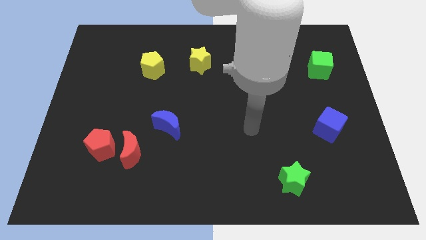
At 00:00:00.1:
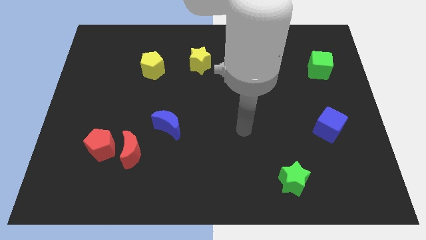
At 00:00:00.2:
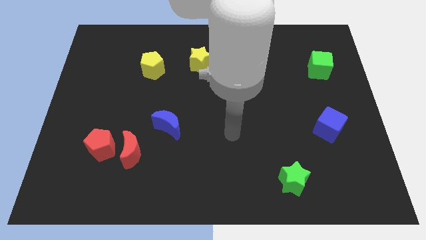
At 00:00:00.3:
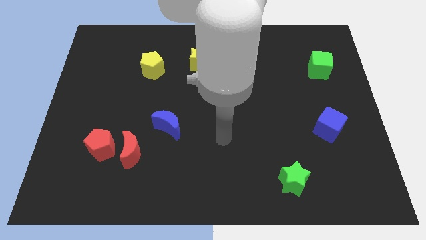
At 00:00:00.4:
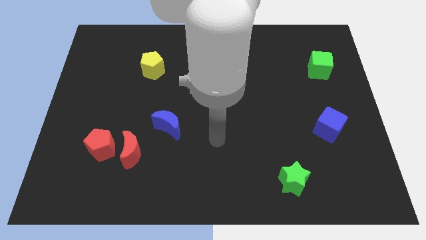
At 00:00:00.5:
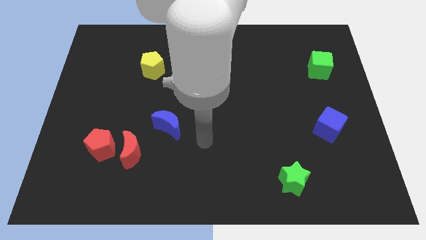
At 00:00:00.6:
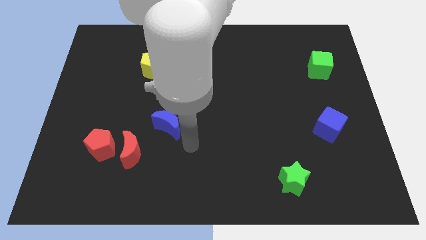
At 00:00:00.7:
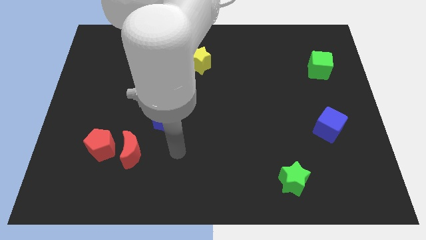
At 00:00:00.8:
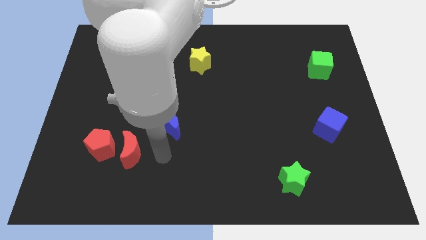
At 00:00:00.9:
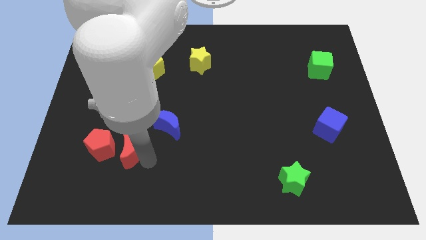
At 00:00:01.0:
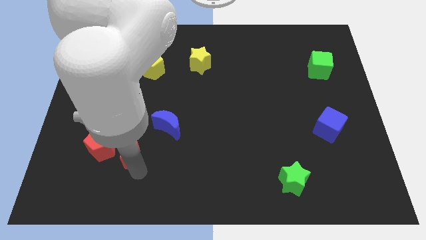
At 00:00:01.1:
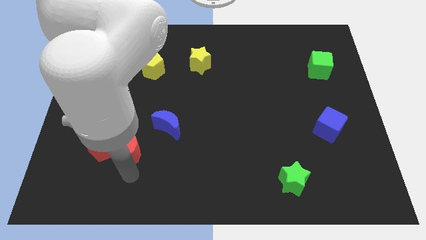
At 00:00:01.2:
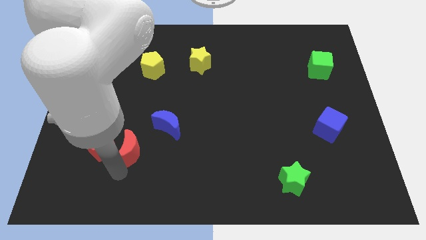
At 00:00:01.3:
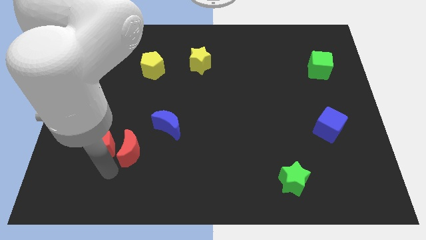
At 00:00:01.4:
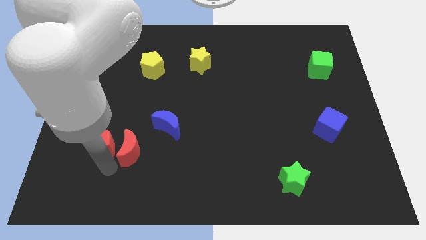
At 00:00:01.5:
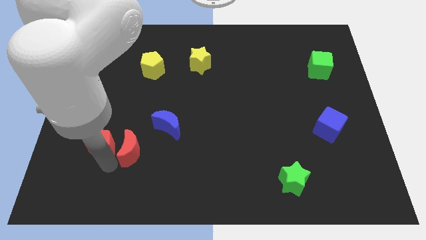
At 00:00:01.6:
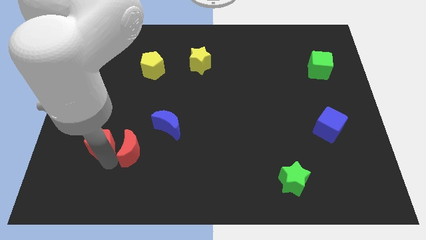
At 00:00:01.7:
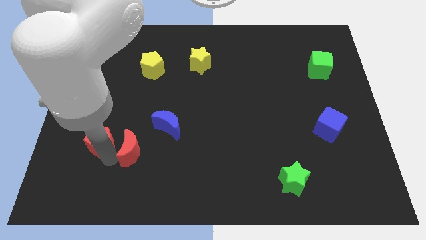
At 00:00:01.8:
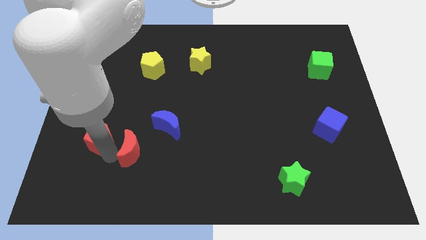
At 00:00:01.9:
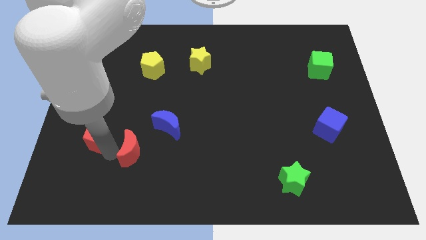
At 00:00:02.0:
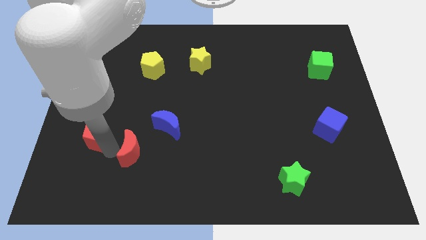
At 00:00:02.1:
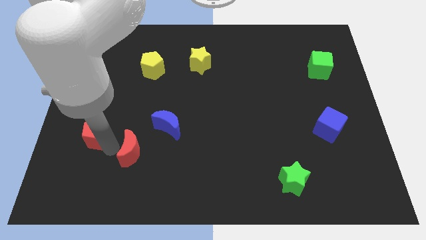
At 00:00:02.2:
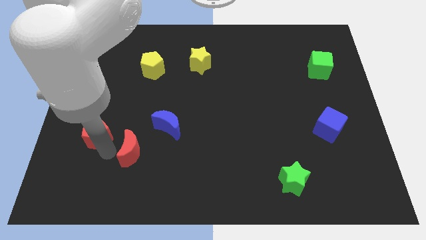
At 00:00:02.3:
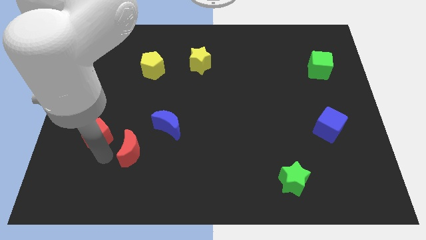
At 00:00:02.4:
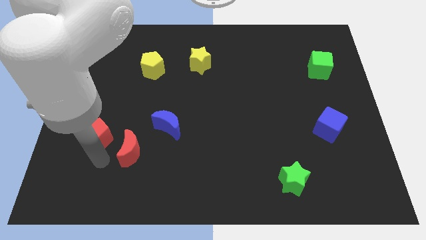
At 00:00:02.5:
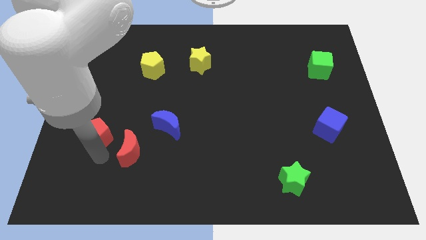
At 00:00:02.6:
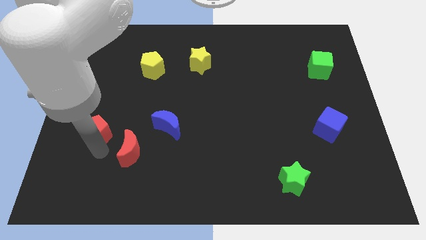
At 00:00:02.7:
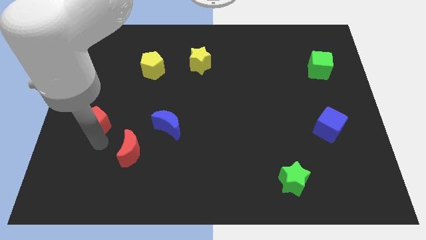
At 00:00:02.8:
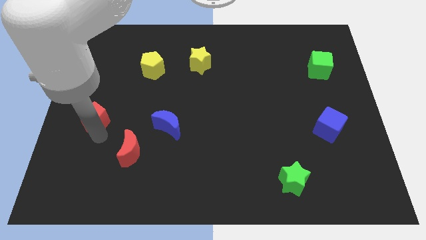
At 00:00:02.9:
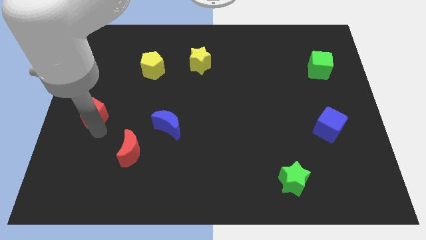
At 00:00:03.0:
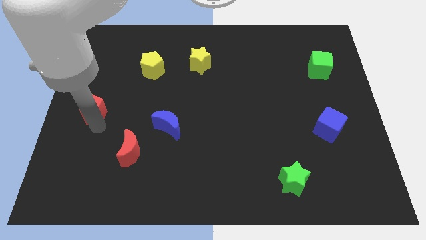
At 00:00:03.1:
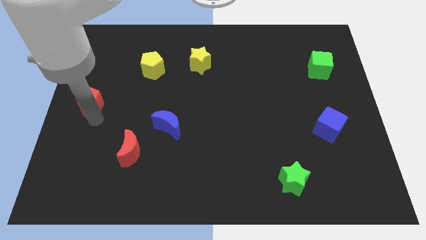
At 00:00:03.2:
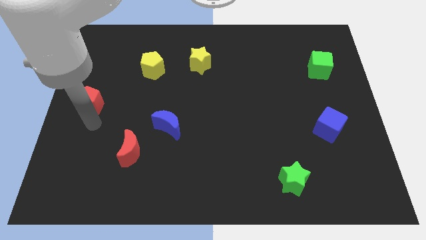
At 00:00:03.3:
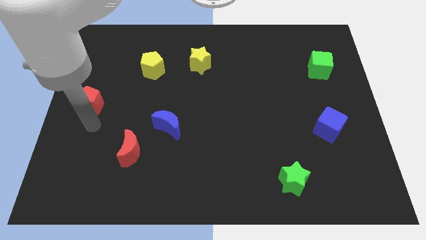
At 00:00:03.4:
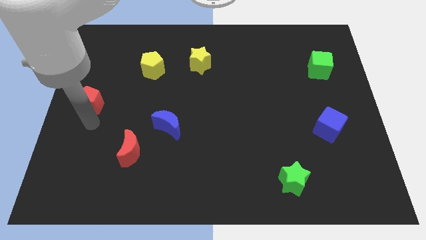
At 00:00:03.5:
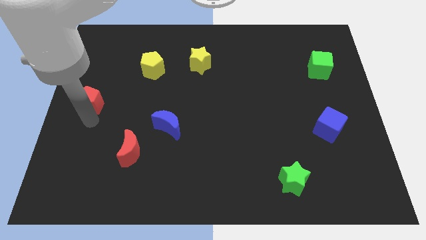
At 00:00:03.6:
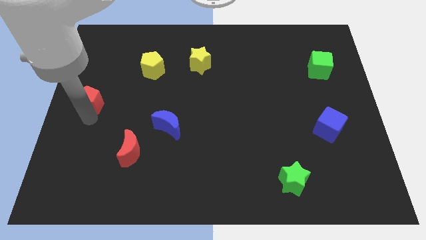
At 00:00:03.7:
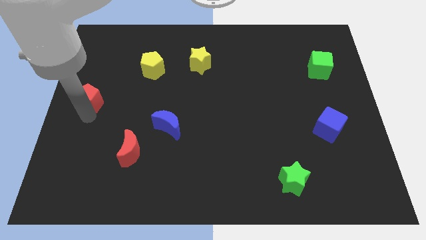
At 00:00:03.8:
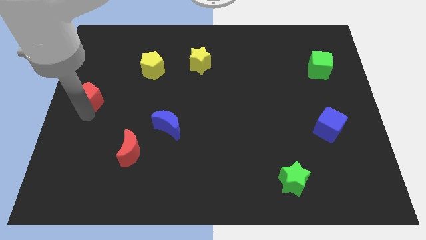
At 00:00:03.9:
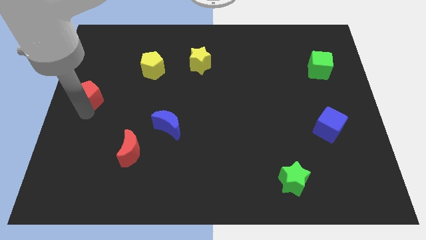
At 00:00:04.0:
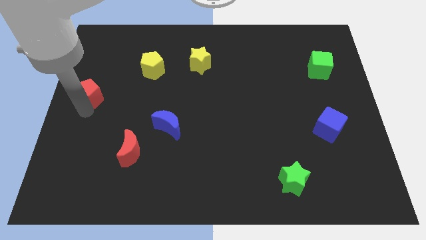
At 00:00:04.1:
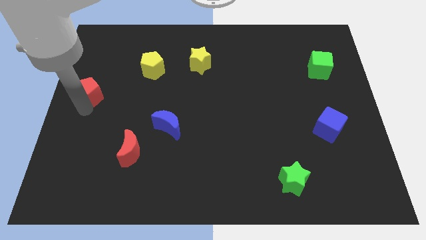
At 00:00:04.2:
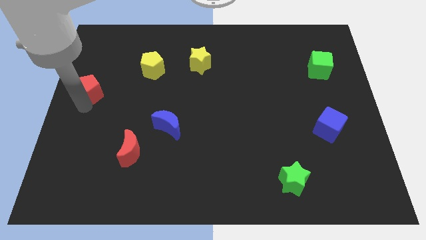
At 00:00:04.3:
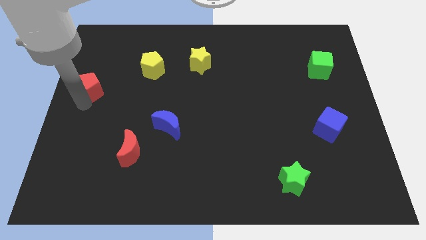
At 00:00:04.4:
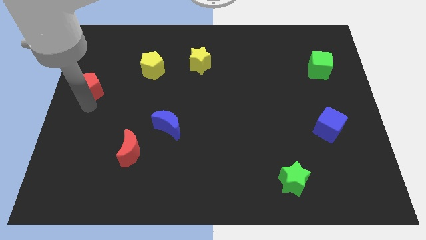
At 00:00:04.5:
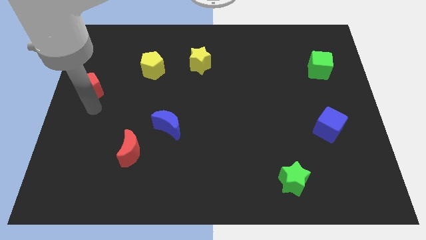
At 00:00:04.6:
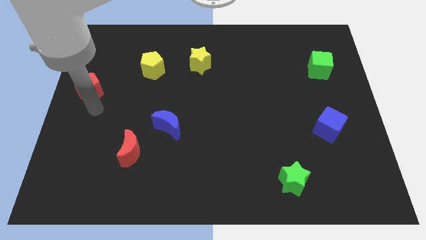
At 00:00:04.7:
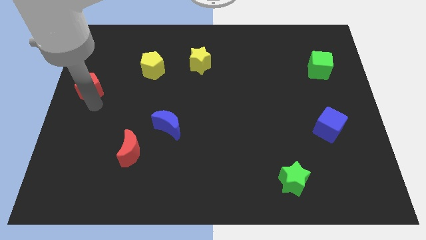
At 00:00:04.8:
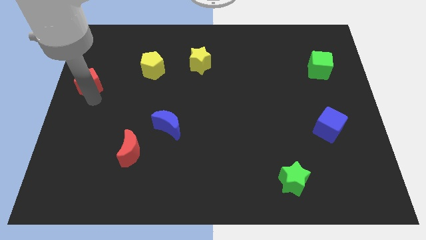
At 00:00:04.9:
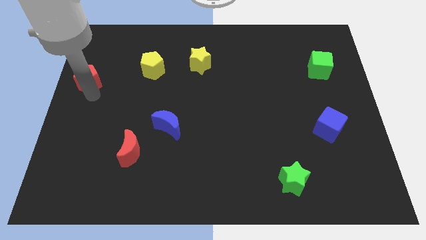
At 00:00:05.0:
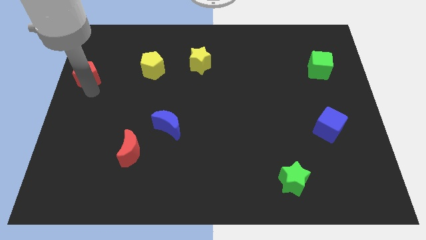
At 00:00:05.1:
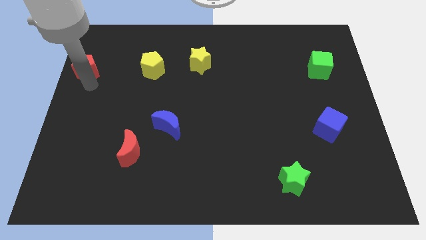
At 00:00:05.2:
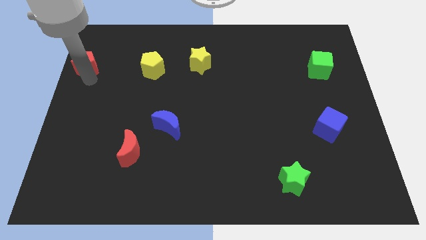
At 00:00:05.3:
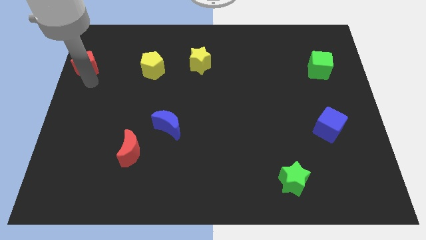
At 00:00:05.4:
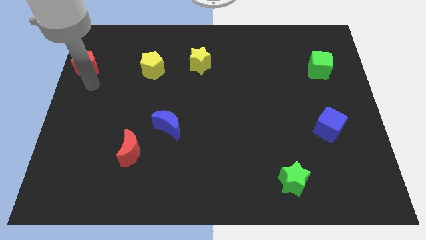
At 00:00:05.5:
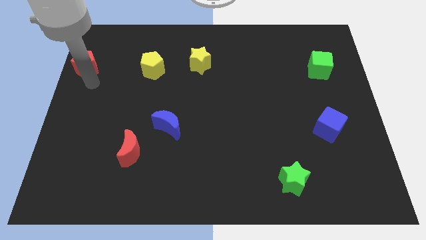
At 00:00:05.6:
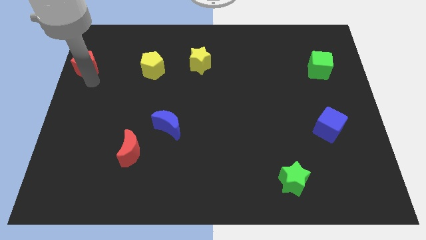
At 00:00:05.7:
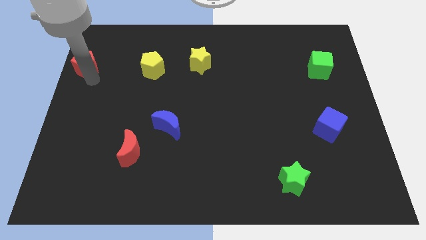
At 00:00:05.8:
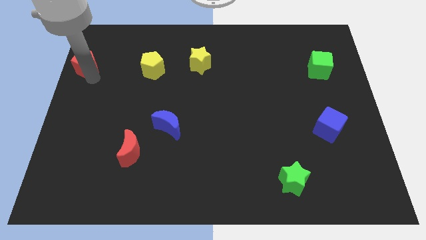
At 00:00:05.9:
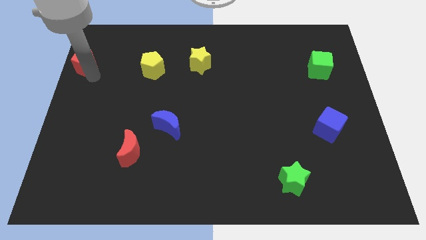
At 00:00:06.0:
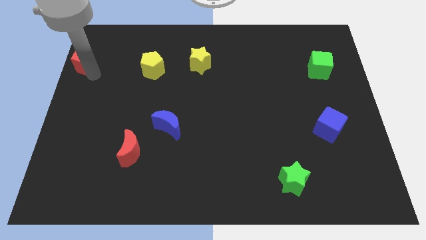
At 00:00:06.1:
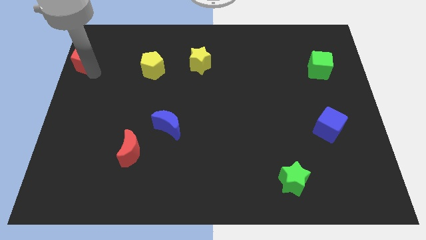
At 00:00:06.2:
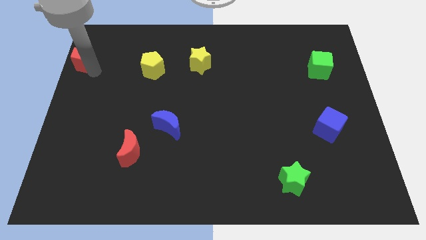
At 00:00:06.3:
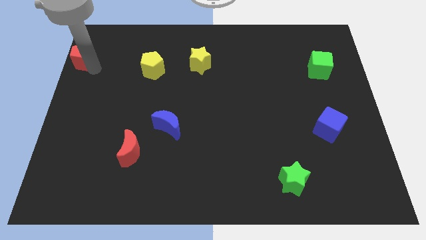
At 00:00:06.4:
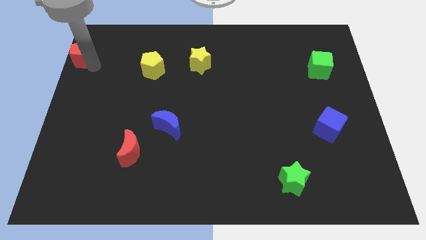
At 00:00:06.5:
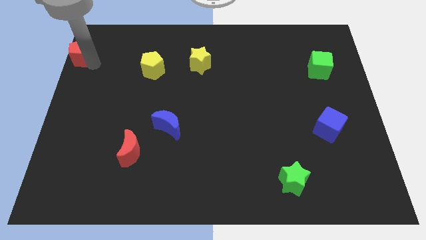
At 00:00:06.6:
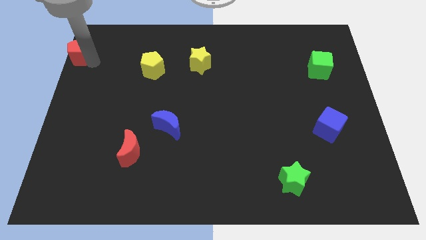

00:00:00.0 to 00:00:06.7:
move the red pentagon to the top left

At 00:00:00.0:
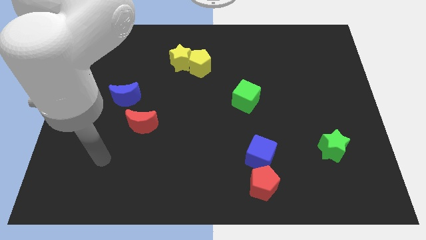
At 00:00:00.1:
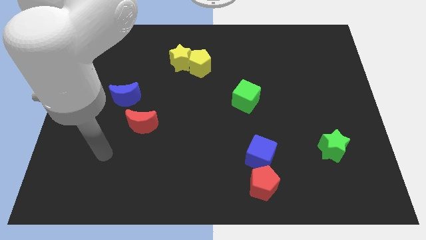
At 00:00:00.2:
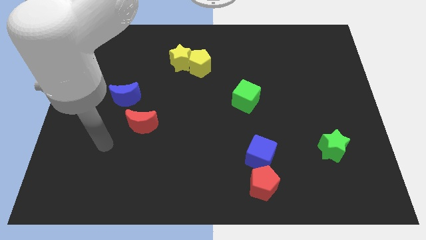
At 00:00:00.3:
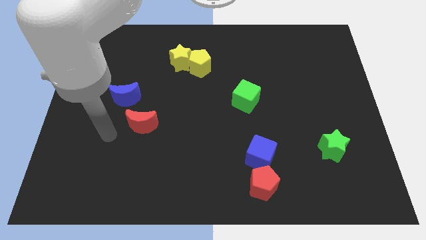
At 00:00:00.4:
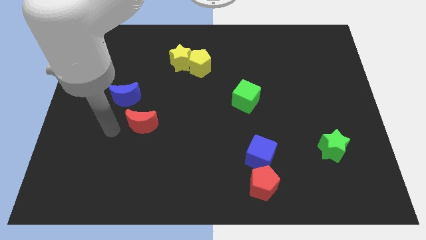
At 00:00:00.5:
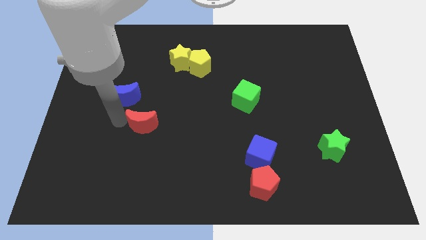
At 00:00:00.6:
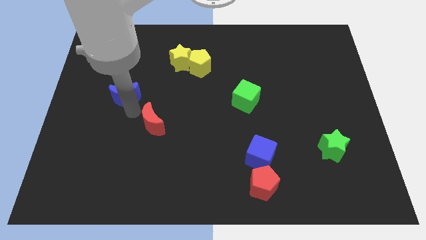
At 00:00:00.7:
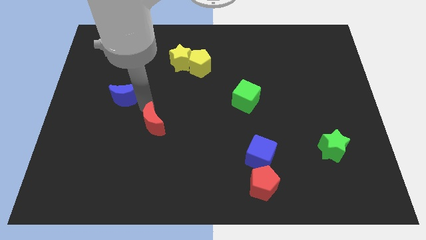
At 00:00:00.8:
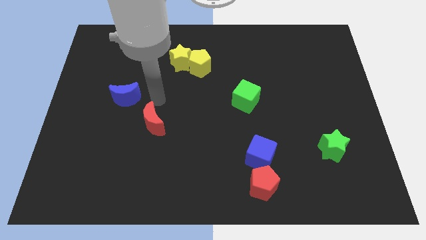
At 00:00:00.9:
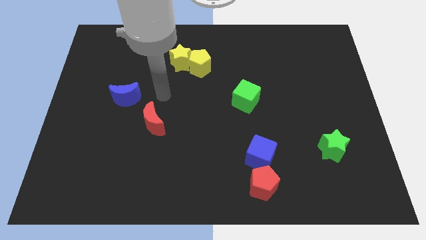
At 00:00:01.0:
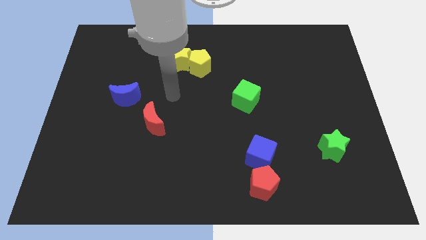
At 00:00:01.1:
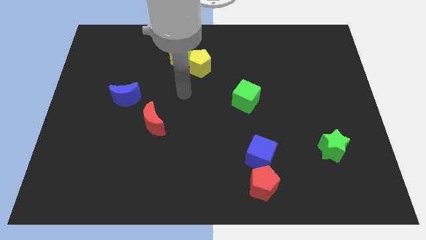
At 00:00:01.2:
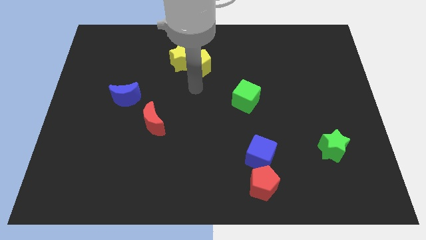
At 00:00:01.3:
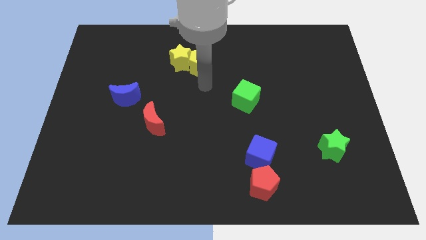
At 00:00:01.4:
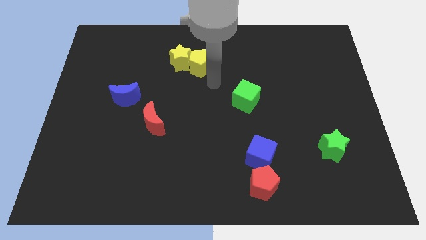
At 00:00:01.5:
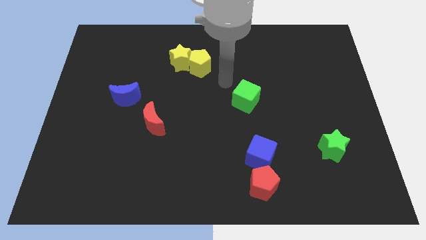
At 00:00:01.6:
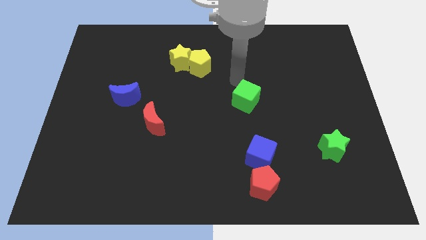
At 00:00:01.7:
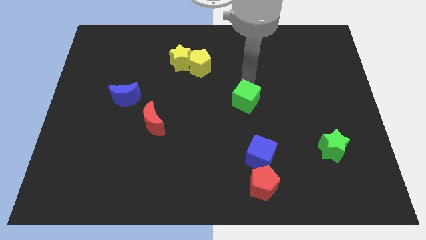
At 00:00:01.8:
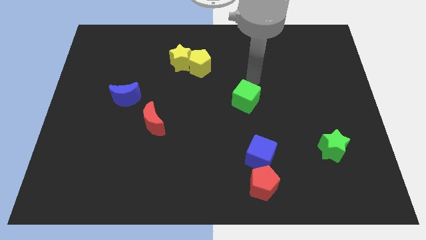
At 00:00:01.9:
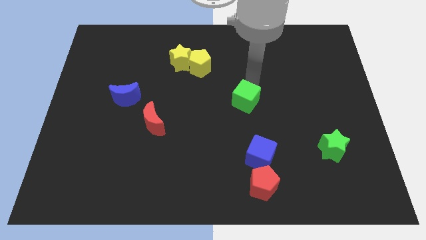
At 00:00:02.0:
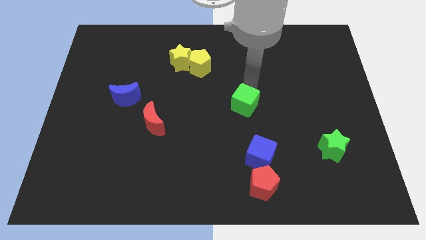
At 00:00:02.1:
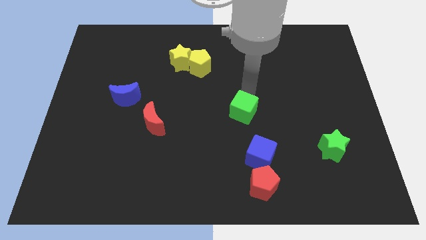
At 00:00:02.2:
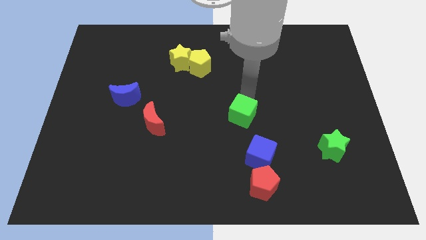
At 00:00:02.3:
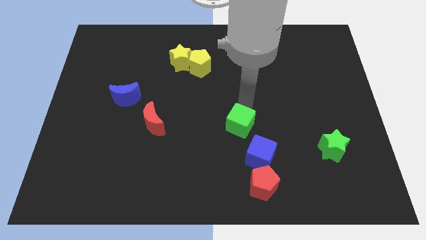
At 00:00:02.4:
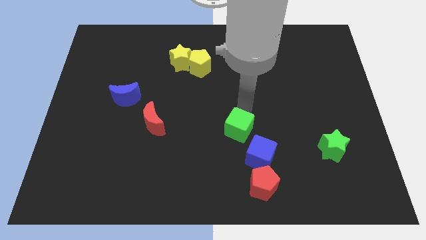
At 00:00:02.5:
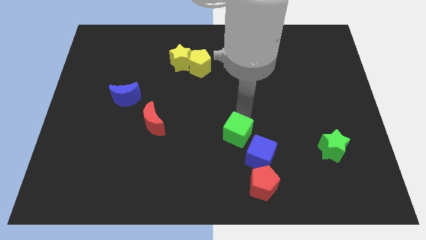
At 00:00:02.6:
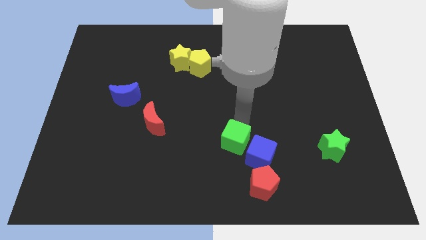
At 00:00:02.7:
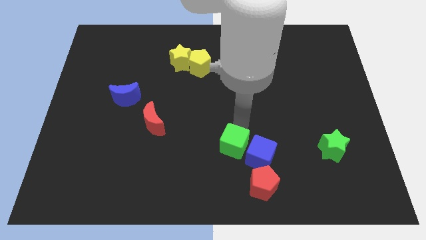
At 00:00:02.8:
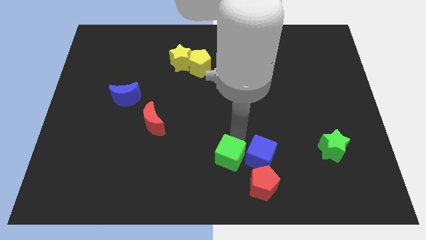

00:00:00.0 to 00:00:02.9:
move the green cube to the bottom side
